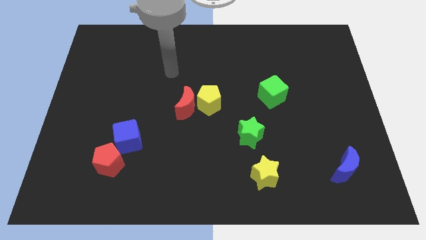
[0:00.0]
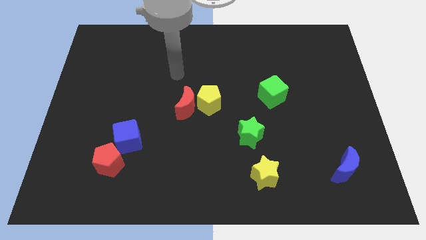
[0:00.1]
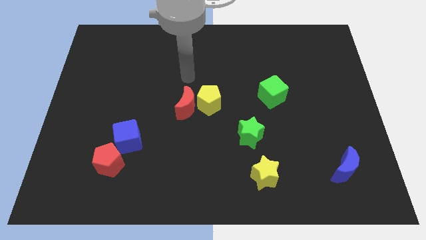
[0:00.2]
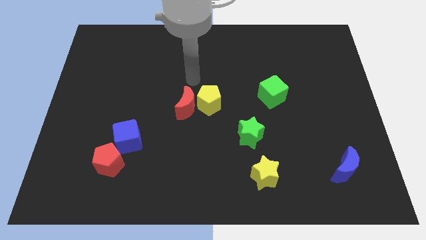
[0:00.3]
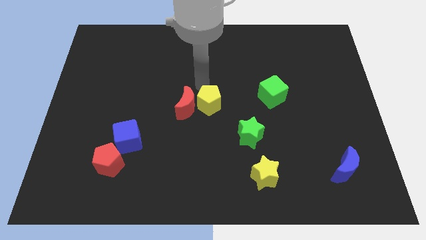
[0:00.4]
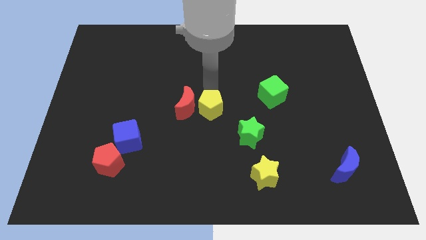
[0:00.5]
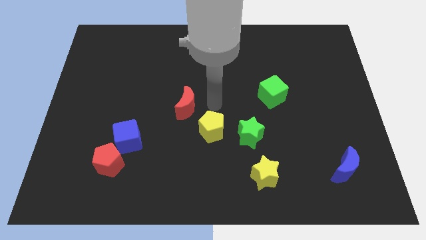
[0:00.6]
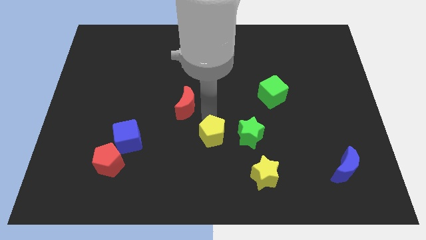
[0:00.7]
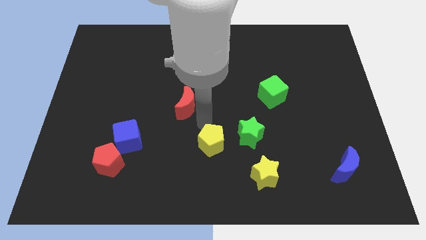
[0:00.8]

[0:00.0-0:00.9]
pull the red moon apart from the yellow pentagon

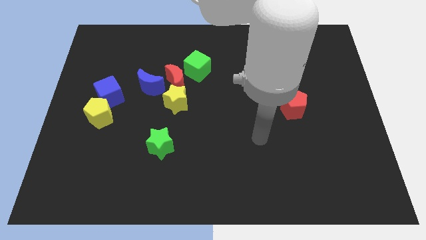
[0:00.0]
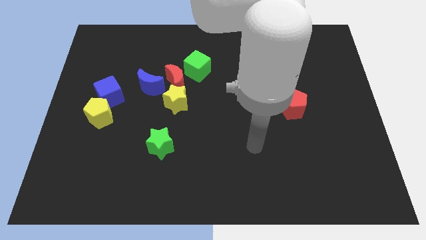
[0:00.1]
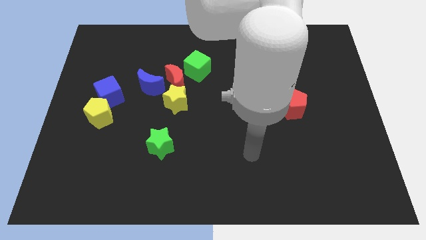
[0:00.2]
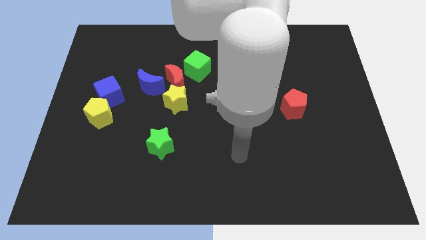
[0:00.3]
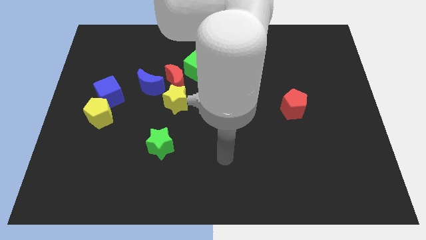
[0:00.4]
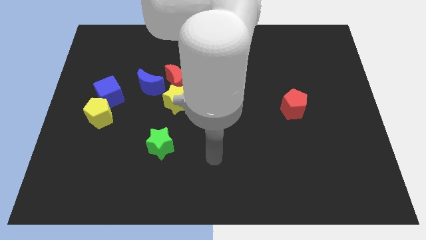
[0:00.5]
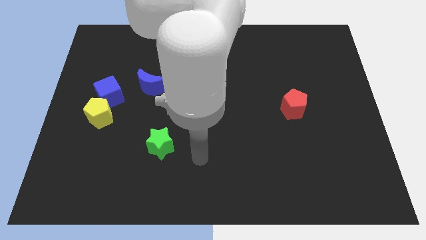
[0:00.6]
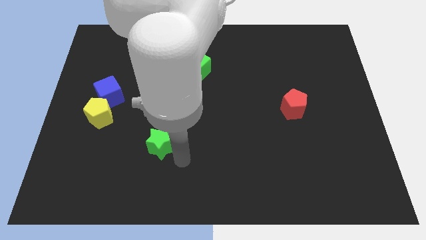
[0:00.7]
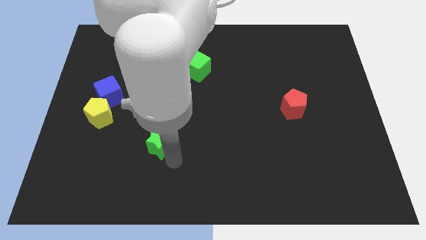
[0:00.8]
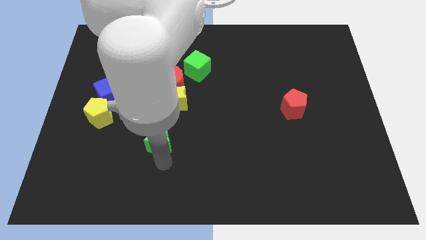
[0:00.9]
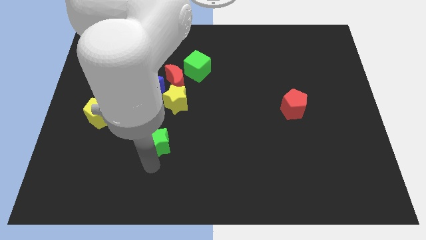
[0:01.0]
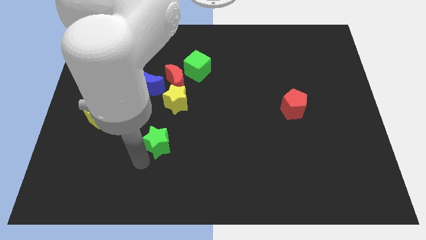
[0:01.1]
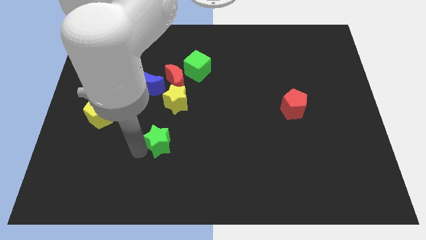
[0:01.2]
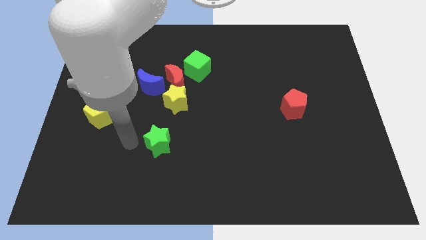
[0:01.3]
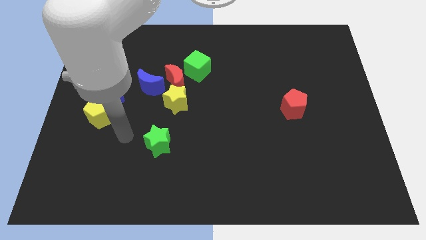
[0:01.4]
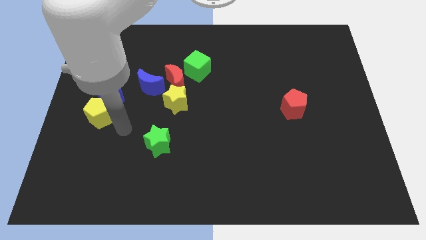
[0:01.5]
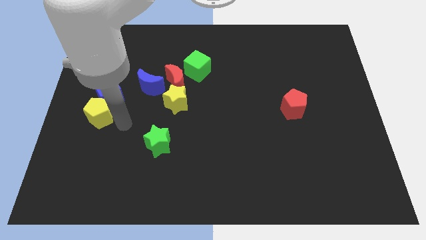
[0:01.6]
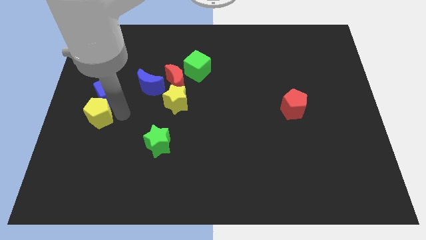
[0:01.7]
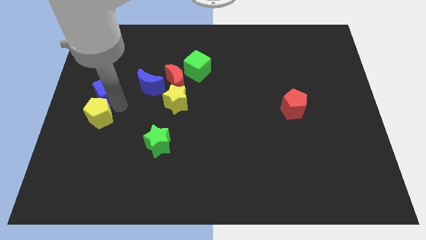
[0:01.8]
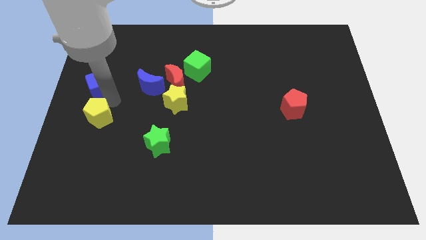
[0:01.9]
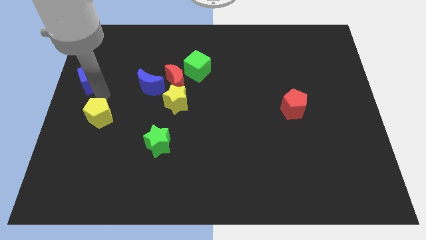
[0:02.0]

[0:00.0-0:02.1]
pull the yellow pentagon apart from the blue cube

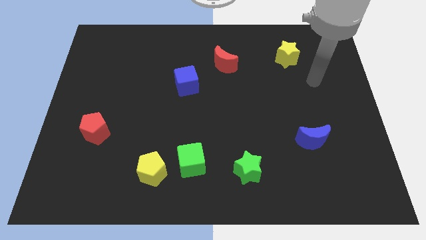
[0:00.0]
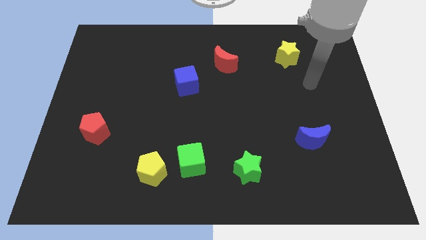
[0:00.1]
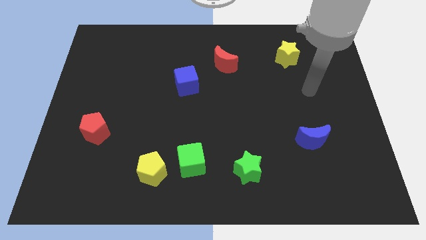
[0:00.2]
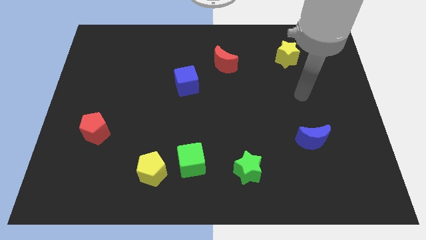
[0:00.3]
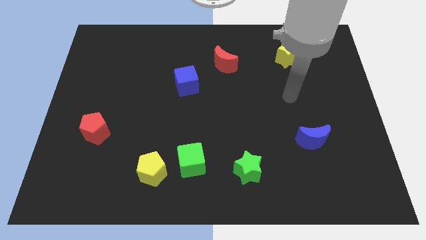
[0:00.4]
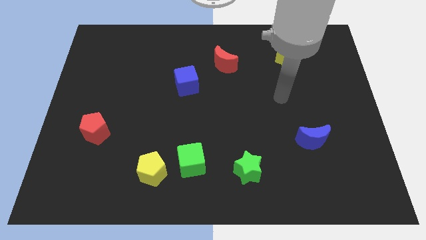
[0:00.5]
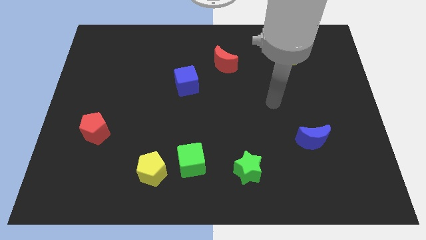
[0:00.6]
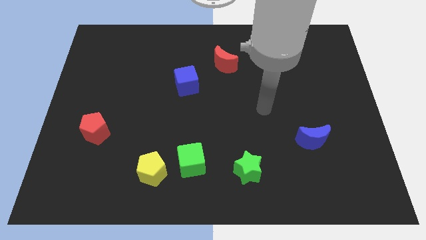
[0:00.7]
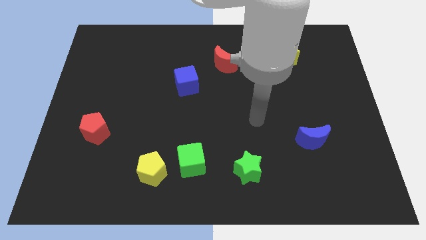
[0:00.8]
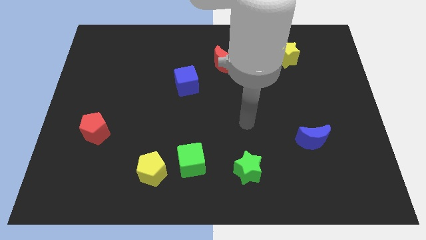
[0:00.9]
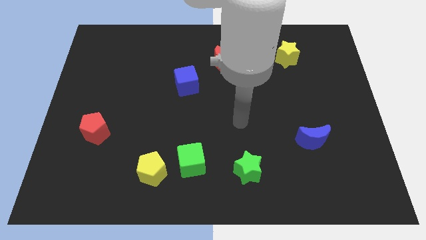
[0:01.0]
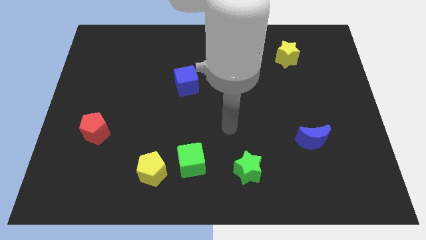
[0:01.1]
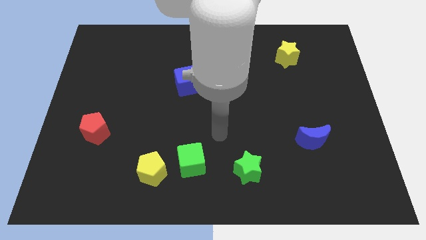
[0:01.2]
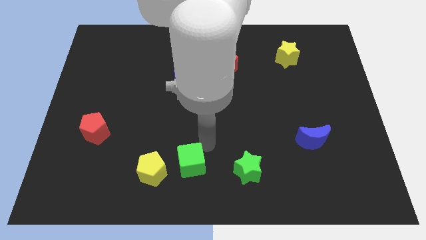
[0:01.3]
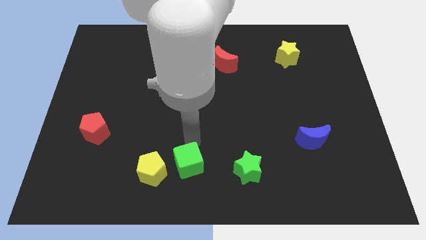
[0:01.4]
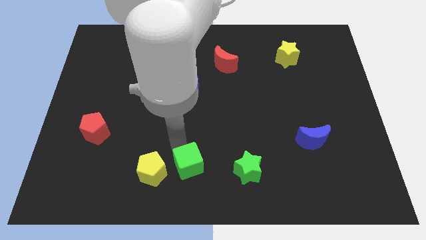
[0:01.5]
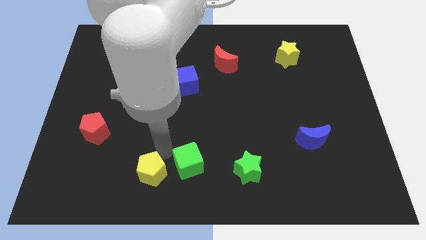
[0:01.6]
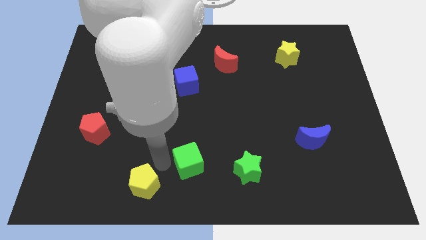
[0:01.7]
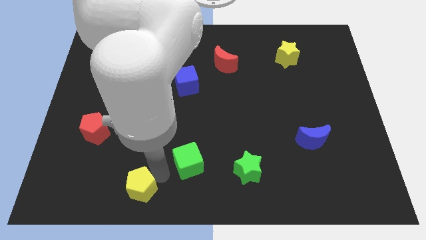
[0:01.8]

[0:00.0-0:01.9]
move the green cube away from the yellow pentagon

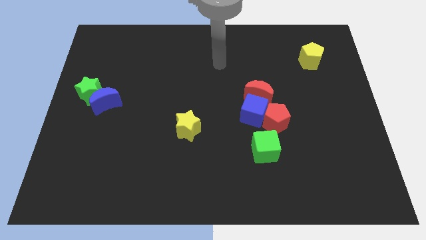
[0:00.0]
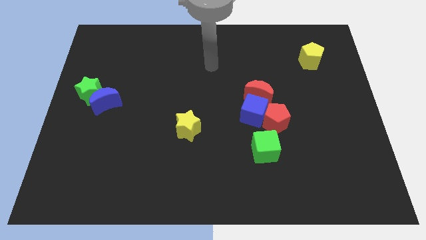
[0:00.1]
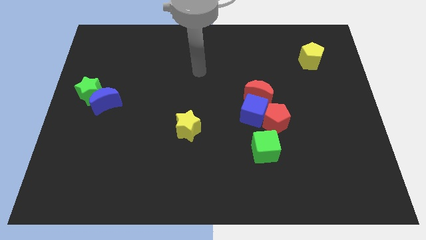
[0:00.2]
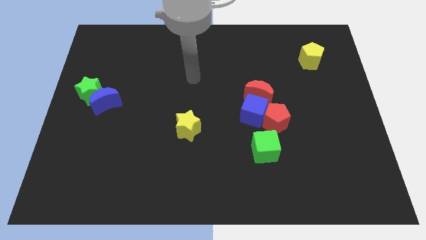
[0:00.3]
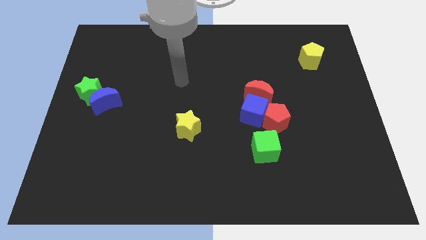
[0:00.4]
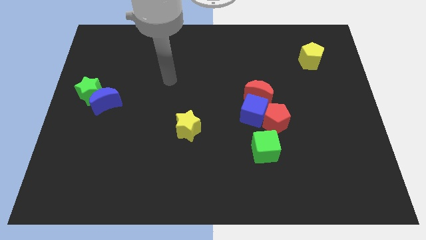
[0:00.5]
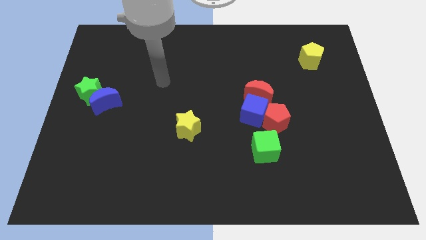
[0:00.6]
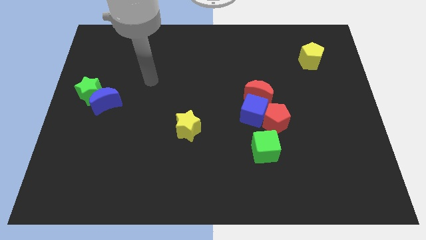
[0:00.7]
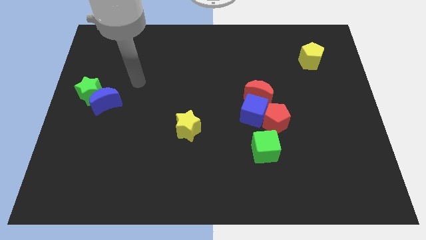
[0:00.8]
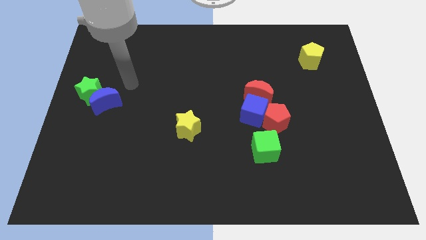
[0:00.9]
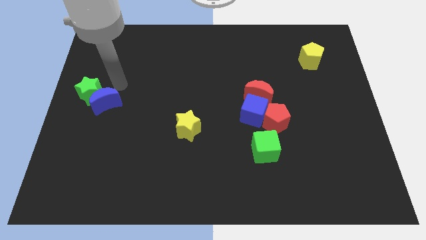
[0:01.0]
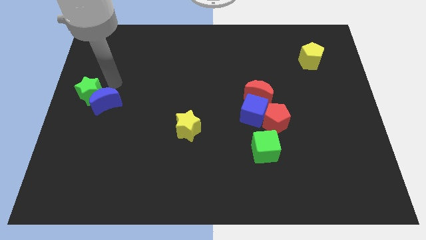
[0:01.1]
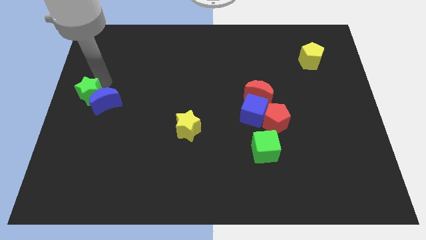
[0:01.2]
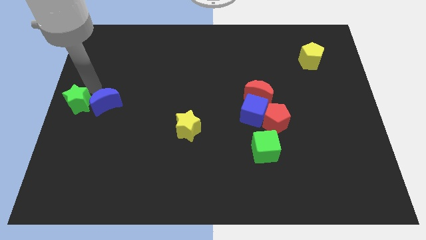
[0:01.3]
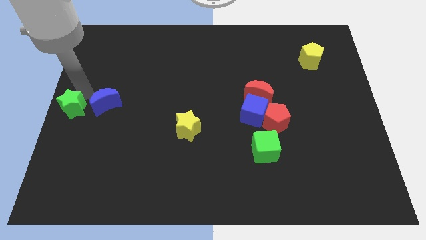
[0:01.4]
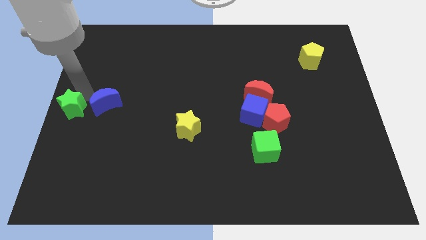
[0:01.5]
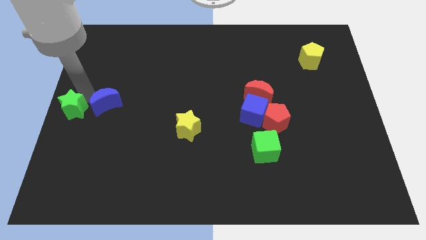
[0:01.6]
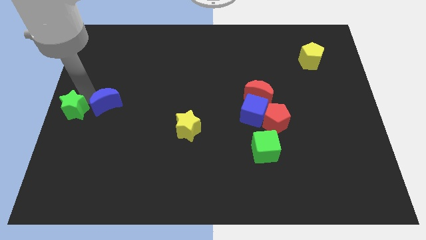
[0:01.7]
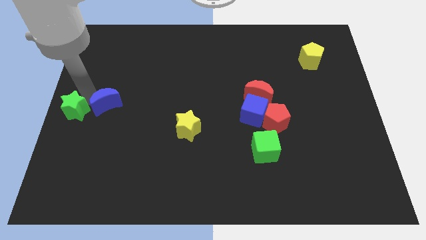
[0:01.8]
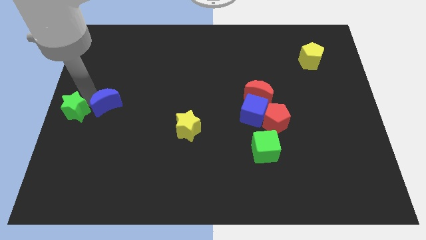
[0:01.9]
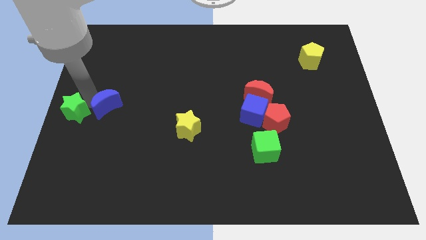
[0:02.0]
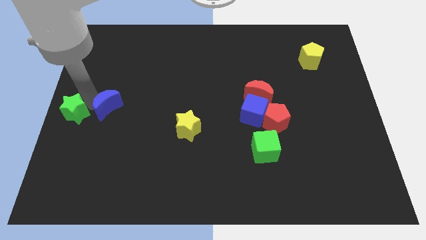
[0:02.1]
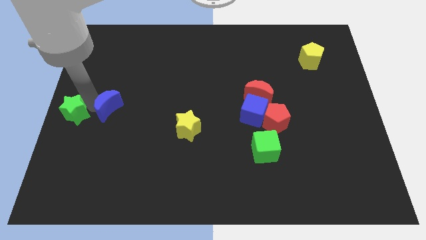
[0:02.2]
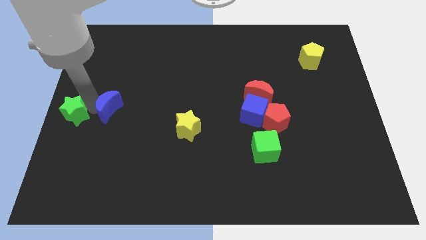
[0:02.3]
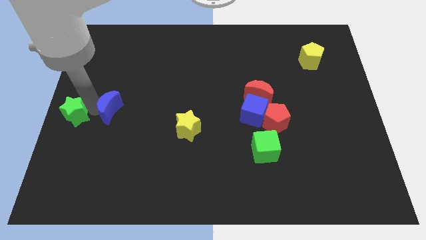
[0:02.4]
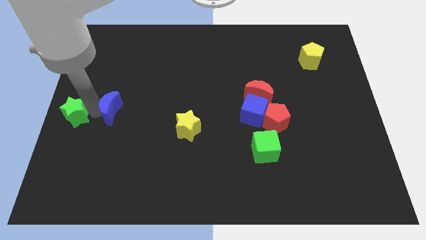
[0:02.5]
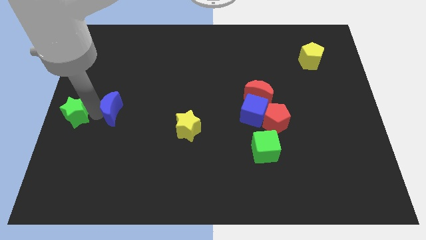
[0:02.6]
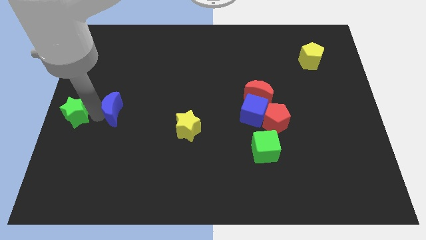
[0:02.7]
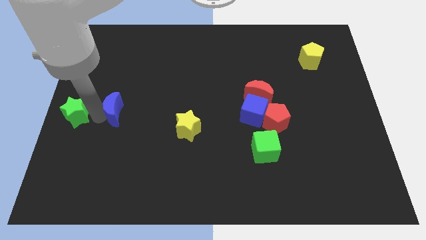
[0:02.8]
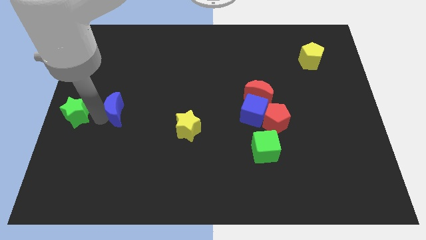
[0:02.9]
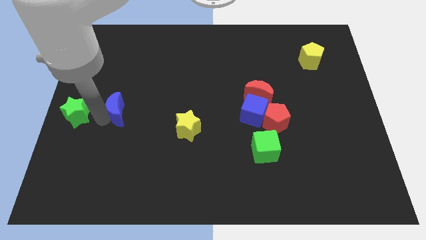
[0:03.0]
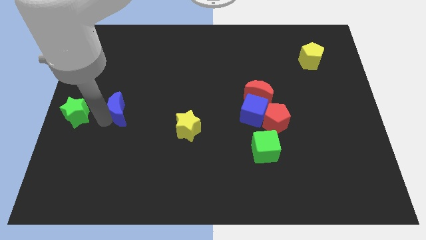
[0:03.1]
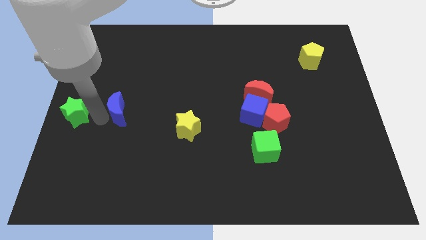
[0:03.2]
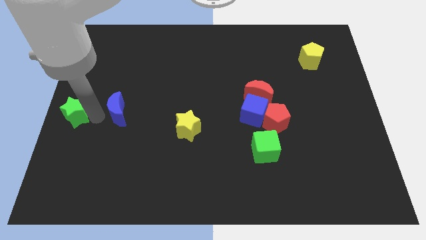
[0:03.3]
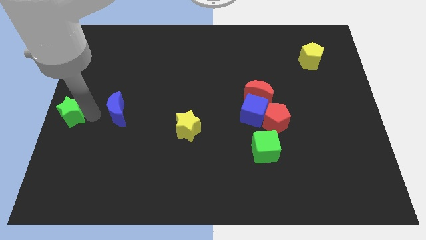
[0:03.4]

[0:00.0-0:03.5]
pull the blue moon apart from the green star

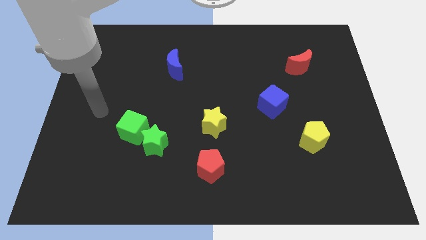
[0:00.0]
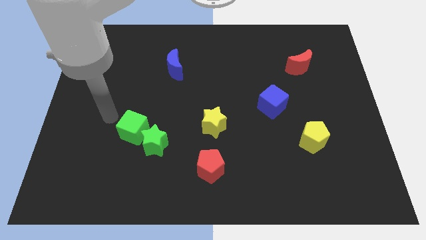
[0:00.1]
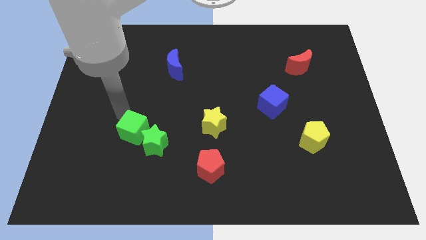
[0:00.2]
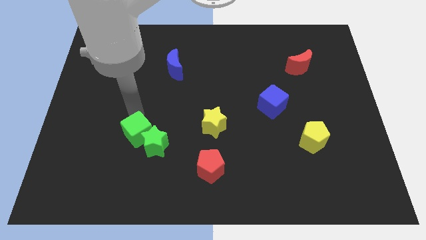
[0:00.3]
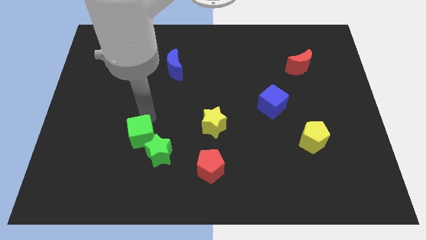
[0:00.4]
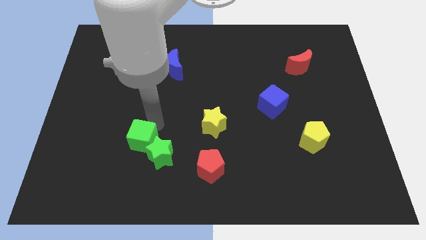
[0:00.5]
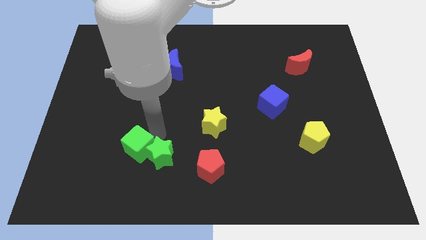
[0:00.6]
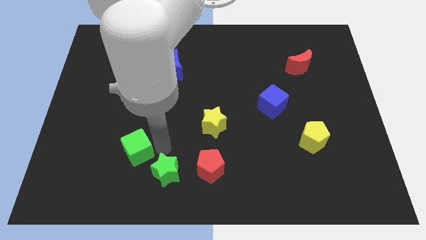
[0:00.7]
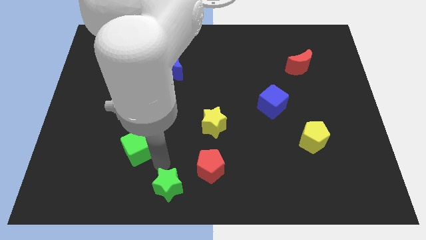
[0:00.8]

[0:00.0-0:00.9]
pull the green cube apart from the green star
